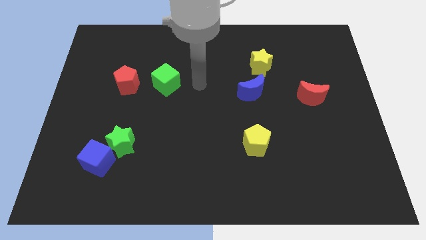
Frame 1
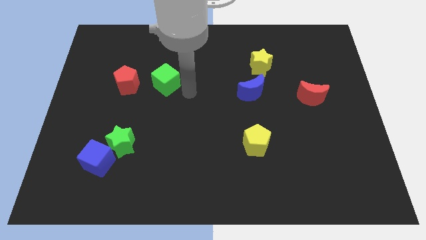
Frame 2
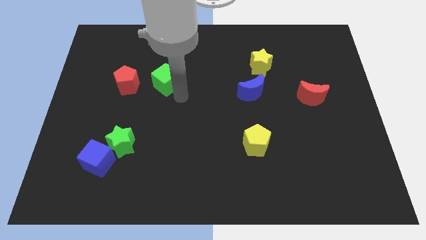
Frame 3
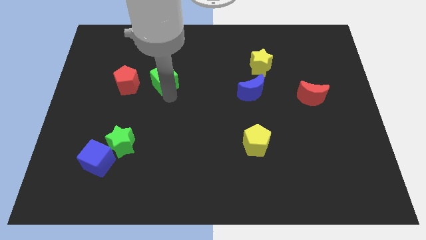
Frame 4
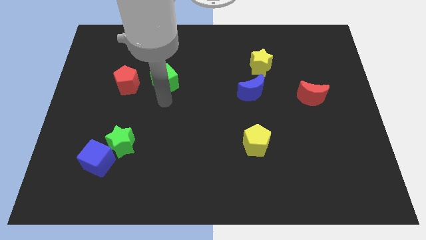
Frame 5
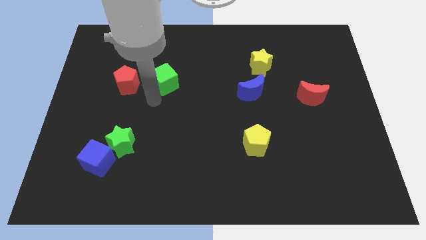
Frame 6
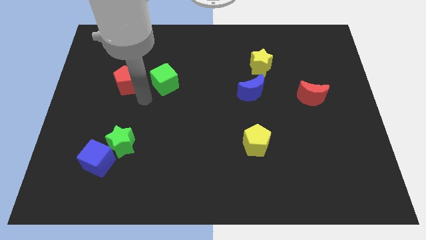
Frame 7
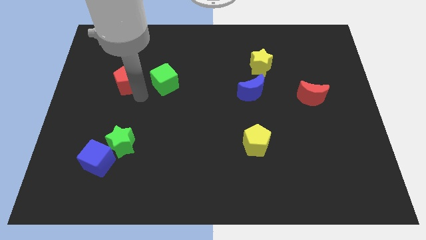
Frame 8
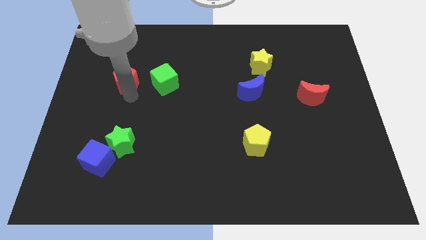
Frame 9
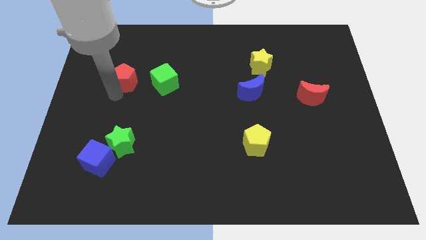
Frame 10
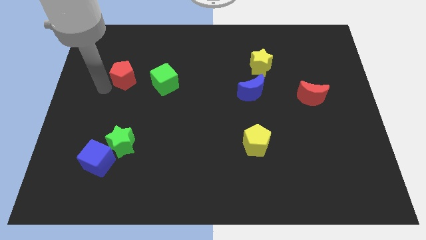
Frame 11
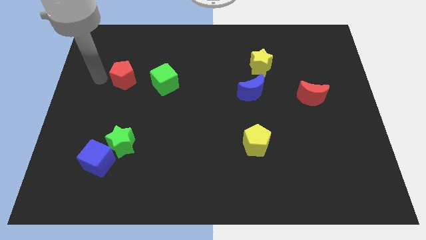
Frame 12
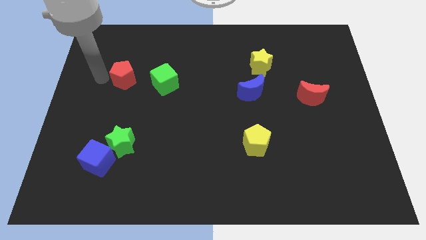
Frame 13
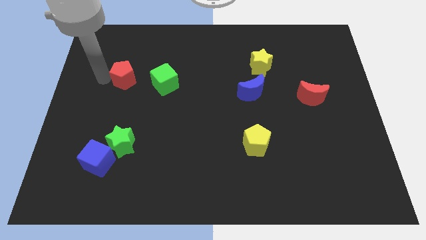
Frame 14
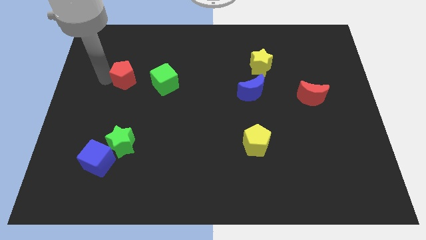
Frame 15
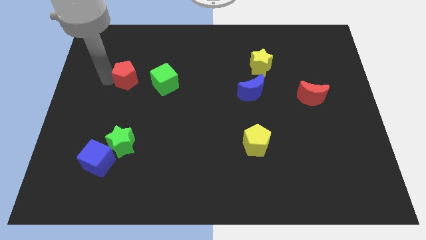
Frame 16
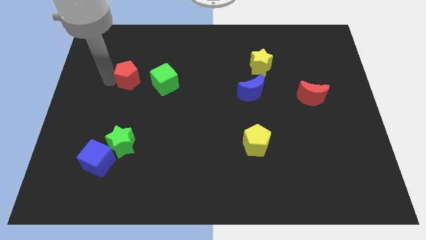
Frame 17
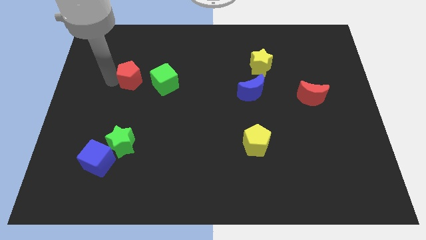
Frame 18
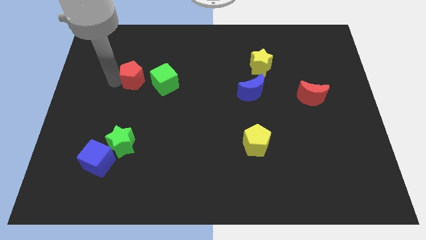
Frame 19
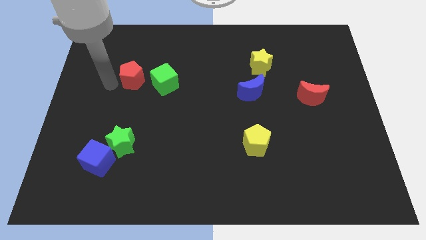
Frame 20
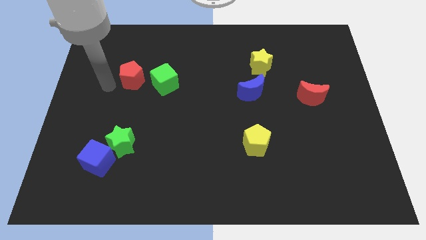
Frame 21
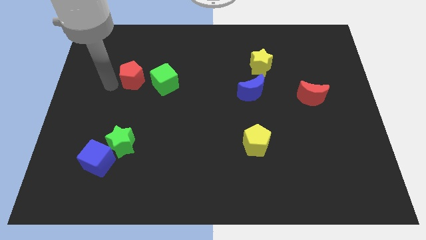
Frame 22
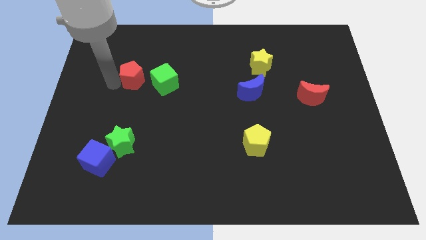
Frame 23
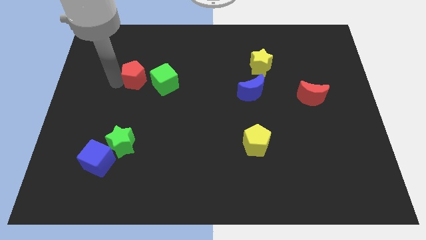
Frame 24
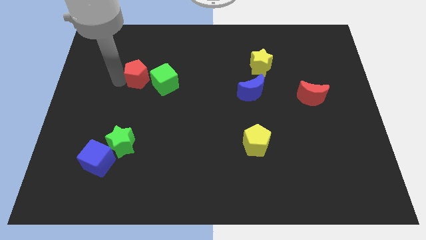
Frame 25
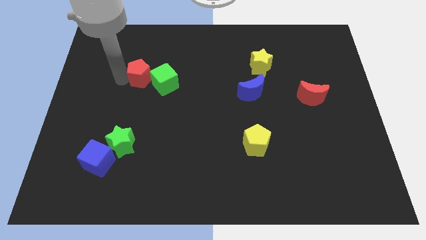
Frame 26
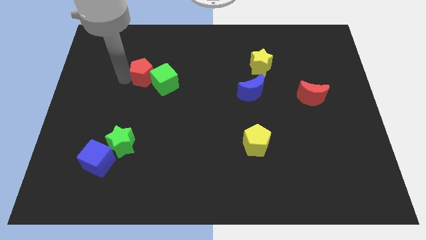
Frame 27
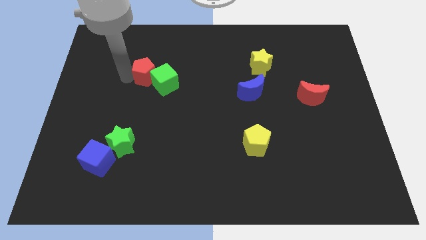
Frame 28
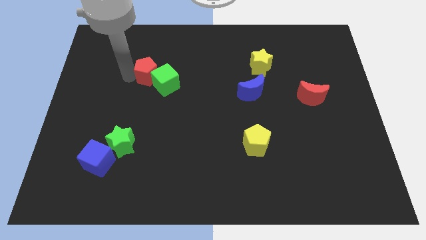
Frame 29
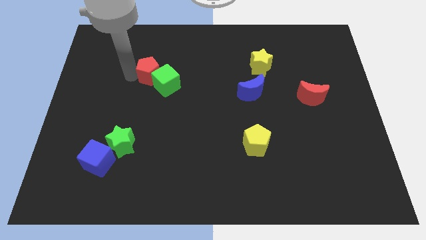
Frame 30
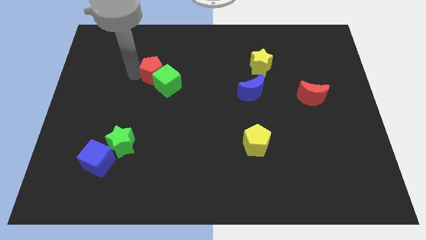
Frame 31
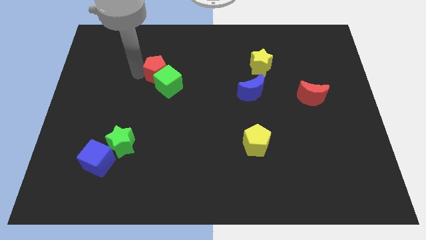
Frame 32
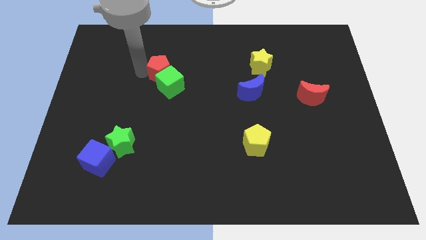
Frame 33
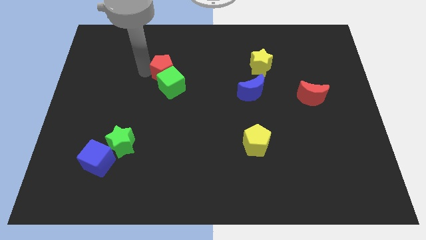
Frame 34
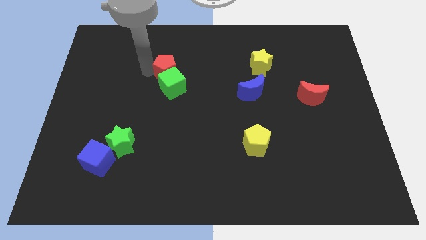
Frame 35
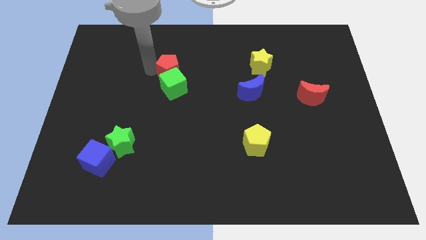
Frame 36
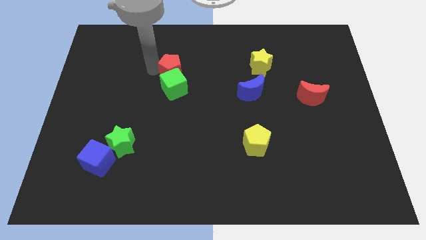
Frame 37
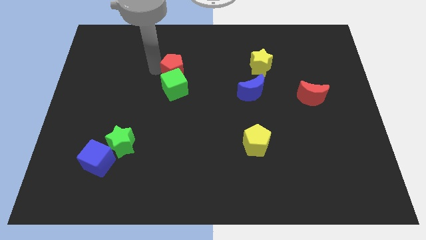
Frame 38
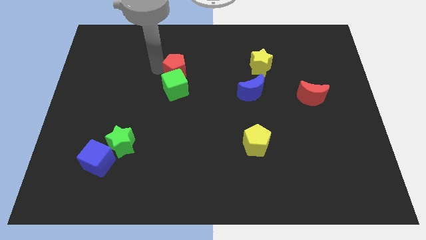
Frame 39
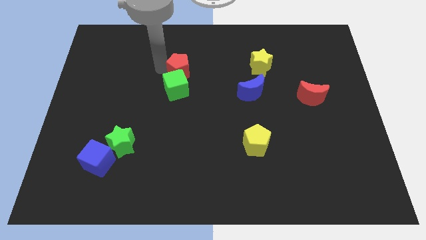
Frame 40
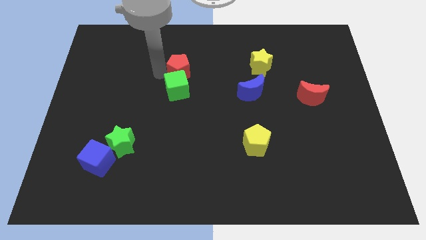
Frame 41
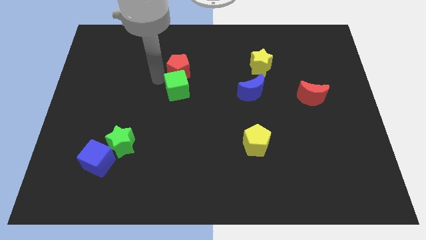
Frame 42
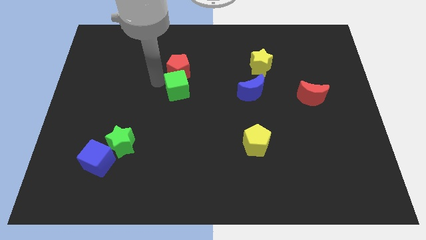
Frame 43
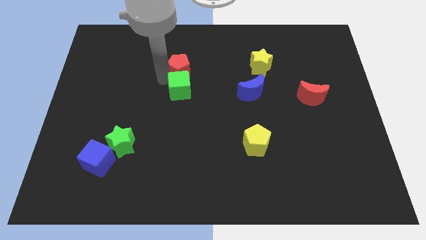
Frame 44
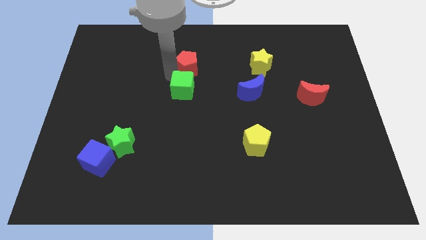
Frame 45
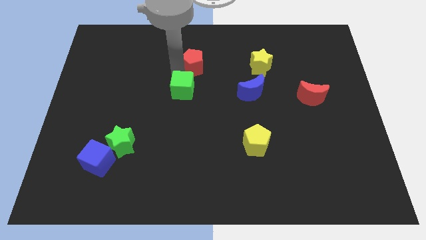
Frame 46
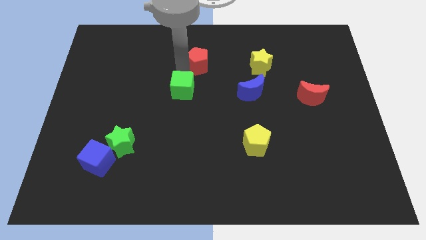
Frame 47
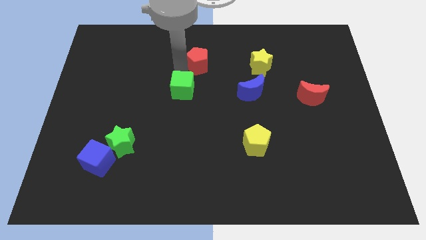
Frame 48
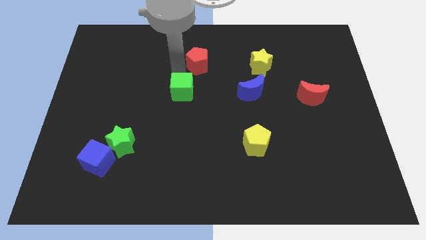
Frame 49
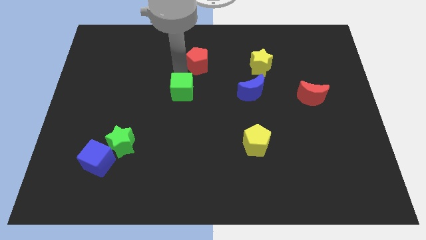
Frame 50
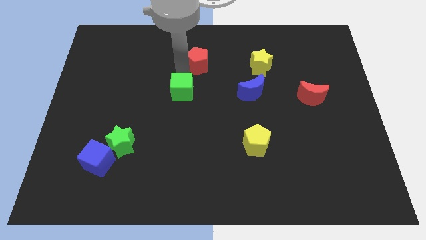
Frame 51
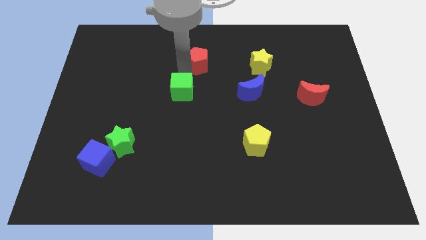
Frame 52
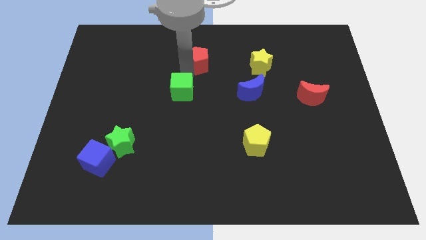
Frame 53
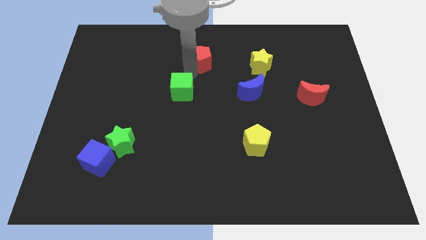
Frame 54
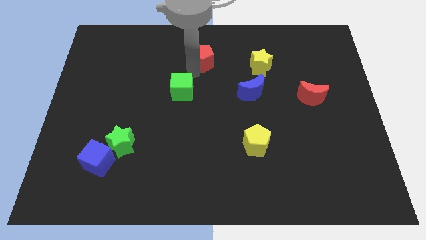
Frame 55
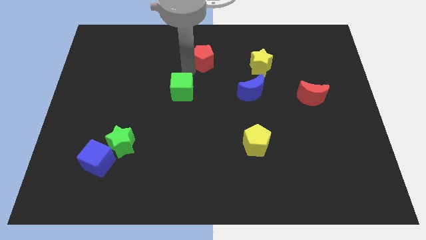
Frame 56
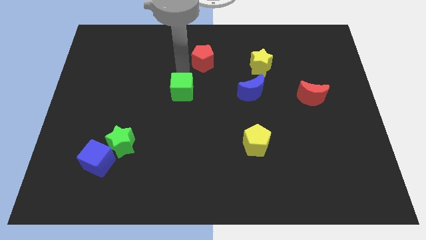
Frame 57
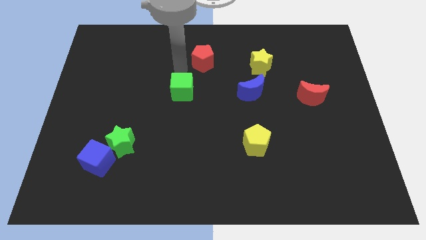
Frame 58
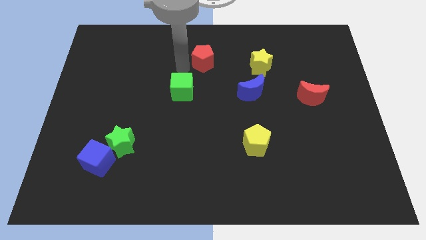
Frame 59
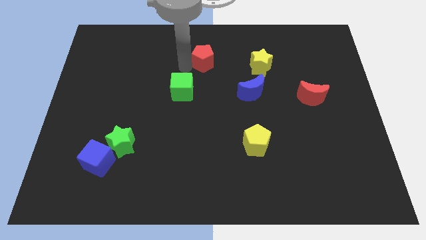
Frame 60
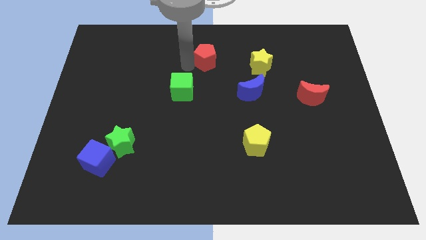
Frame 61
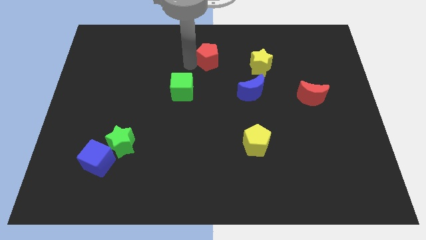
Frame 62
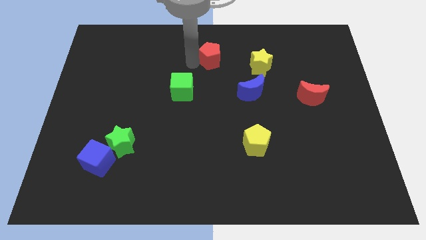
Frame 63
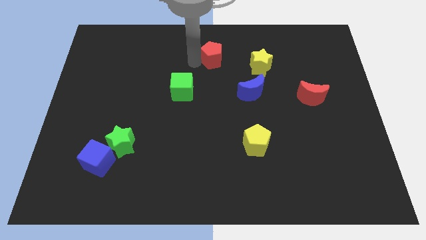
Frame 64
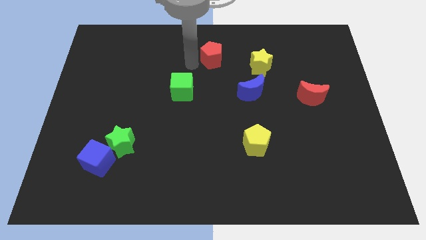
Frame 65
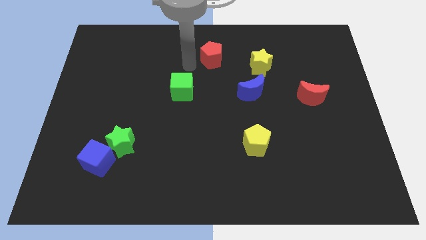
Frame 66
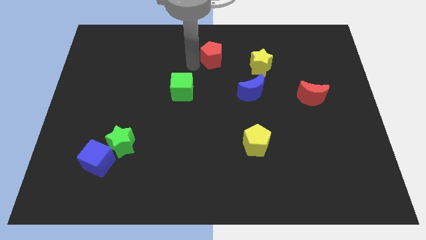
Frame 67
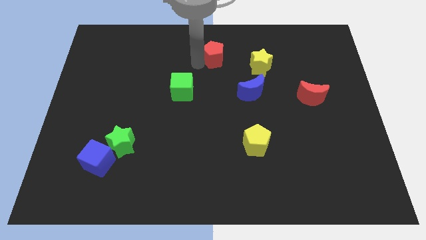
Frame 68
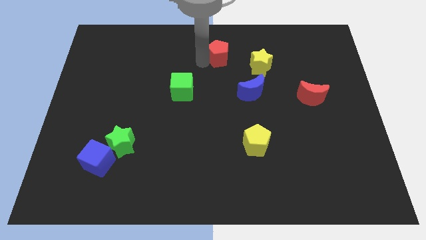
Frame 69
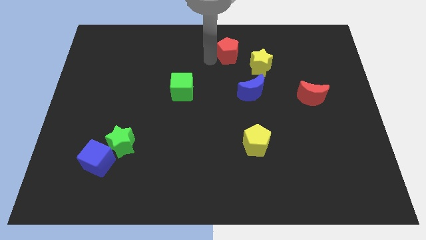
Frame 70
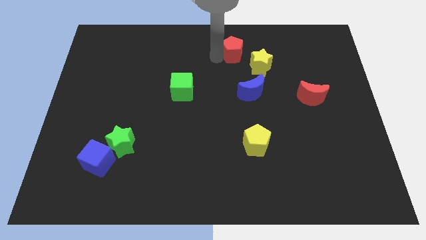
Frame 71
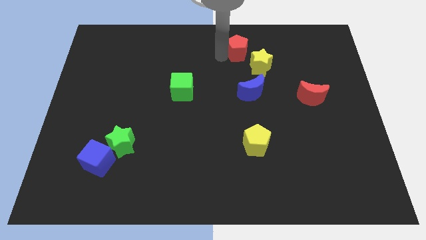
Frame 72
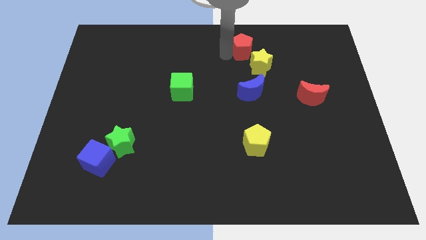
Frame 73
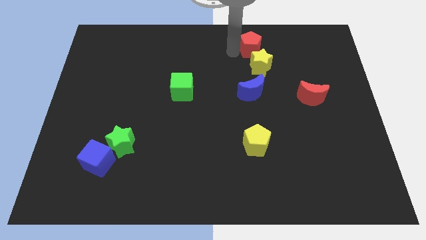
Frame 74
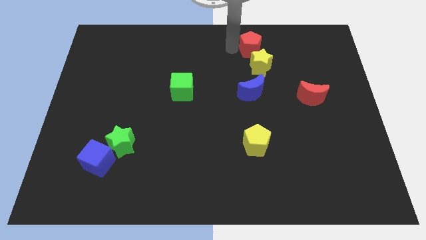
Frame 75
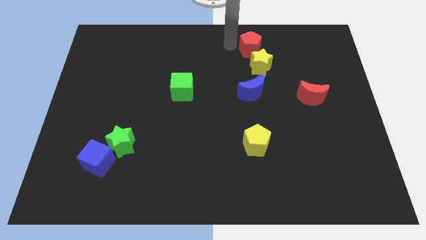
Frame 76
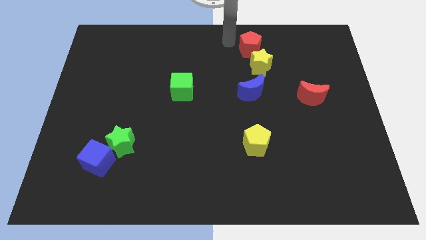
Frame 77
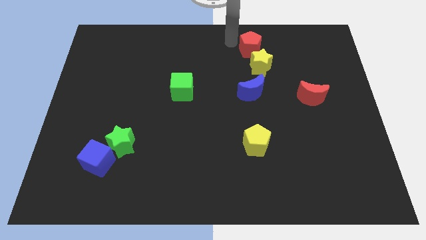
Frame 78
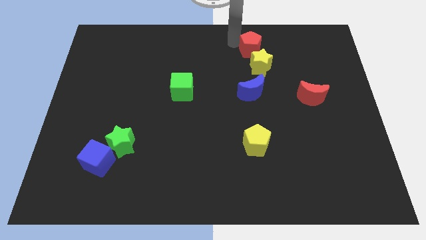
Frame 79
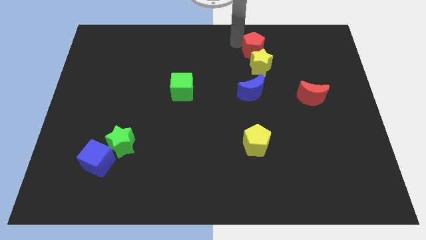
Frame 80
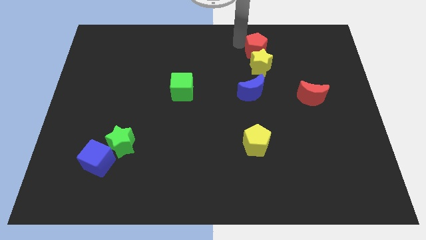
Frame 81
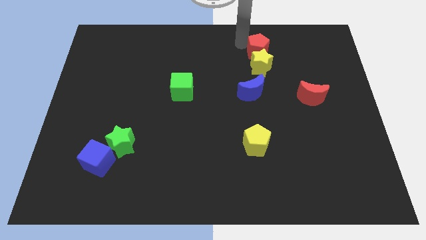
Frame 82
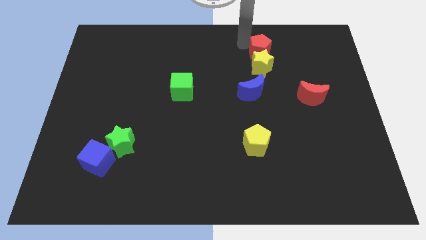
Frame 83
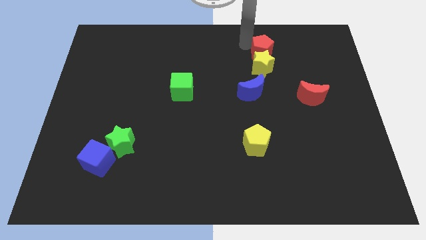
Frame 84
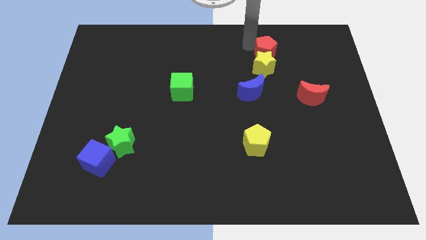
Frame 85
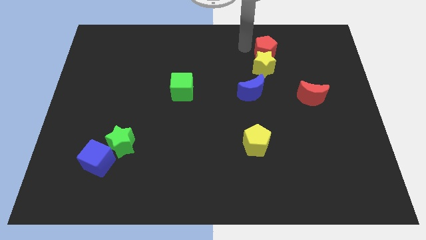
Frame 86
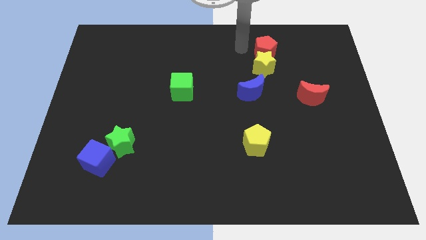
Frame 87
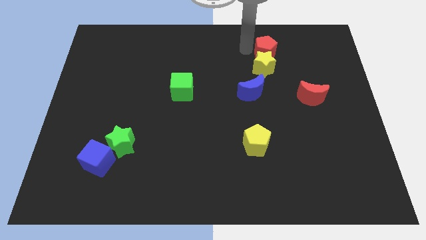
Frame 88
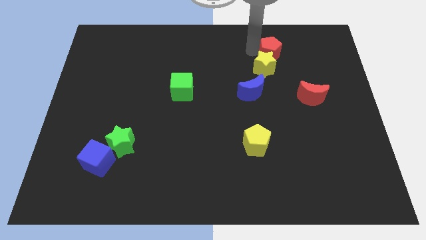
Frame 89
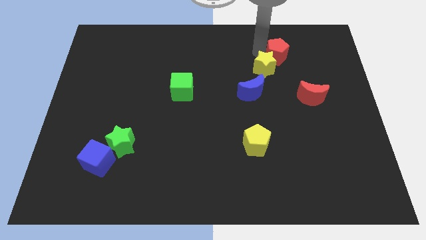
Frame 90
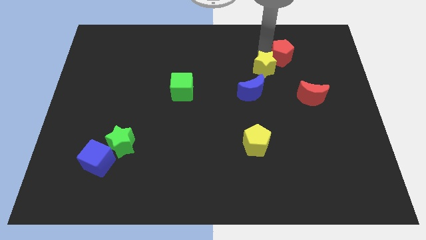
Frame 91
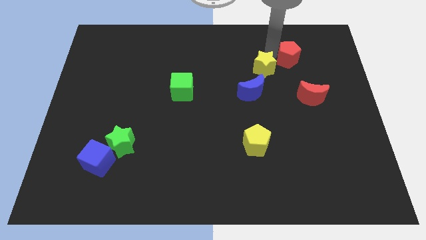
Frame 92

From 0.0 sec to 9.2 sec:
put the red pentagon above the red moon
